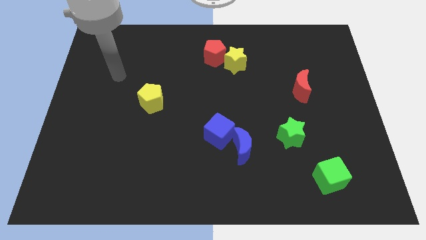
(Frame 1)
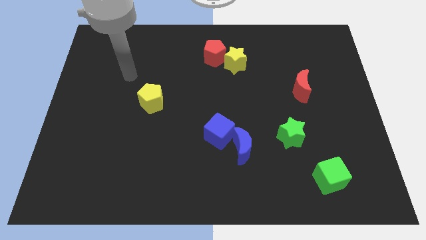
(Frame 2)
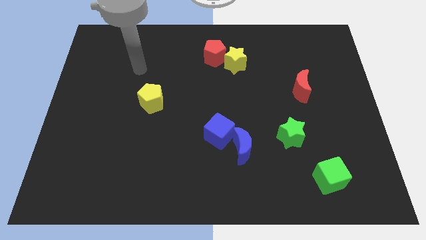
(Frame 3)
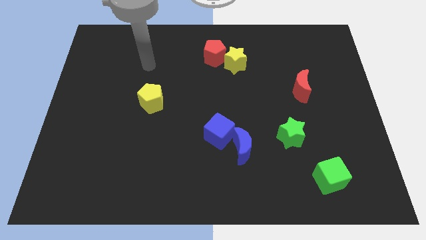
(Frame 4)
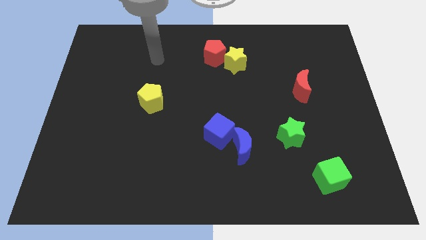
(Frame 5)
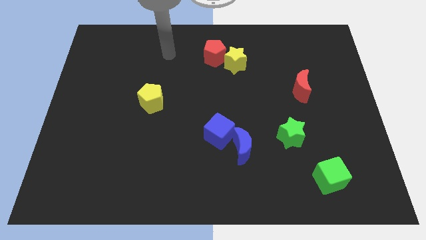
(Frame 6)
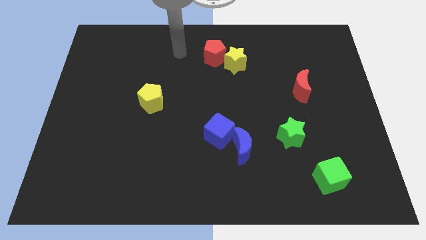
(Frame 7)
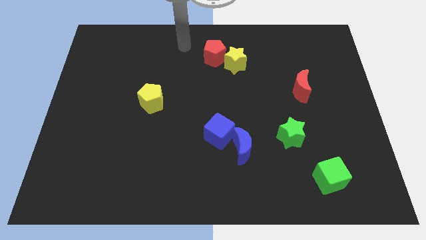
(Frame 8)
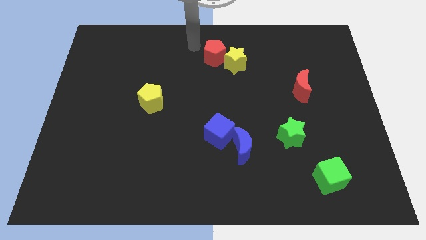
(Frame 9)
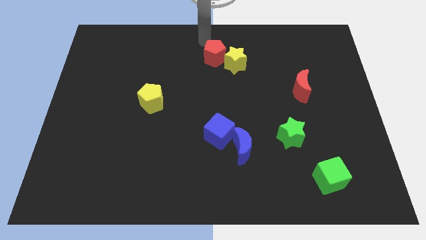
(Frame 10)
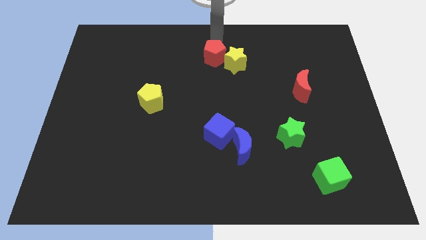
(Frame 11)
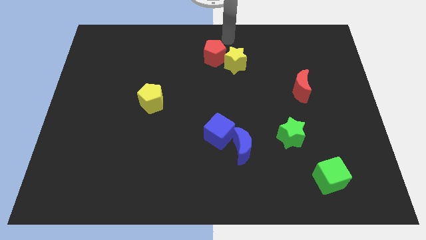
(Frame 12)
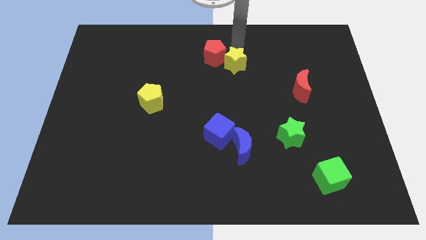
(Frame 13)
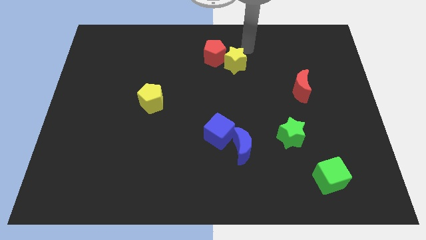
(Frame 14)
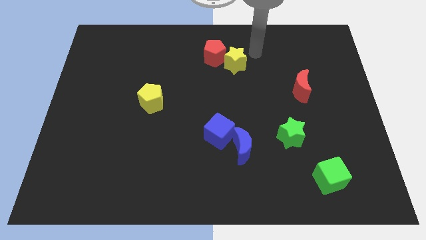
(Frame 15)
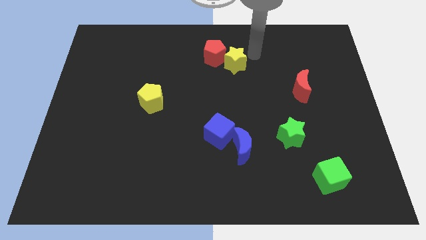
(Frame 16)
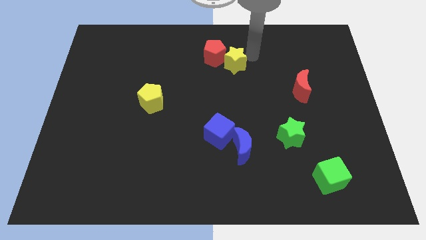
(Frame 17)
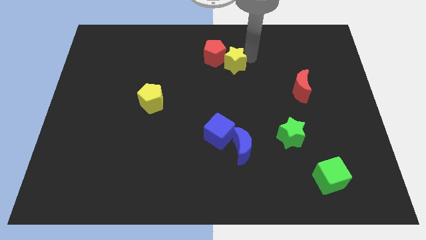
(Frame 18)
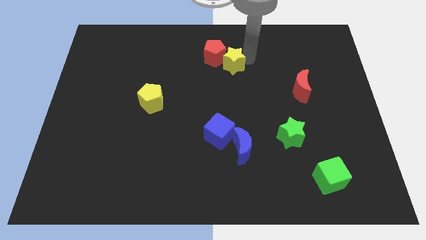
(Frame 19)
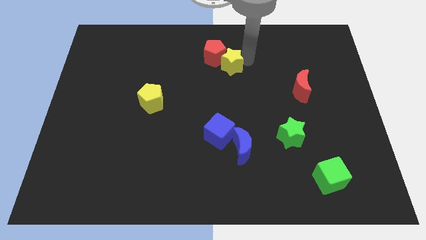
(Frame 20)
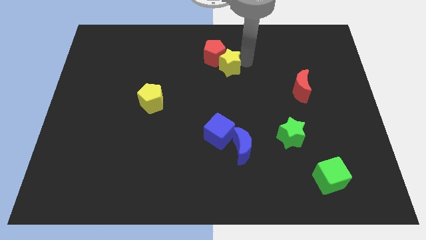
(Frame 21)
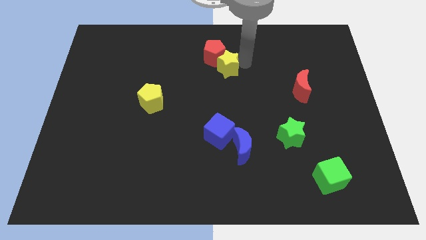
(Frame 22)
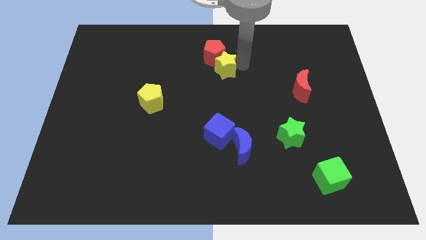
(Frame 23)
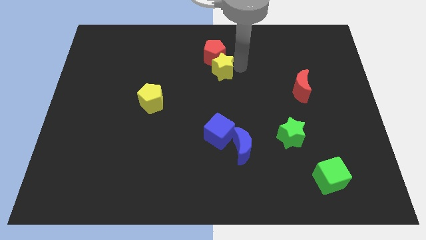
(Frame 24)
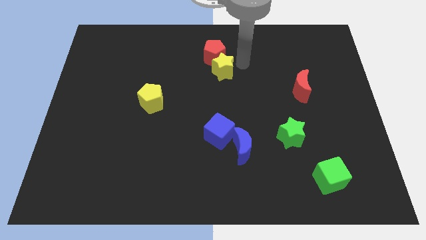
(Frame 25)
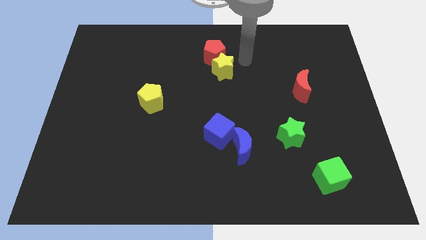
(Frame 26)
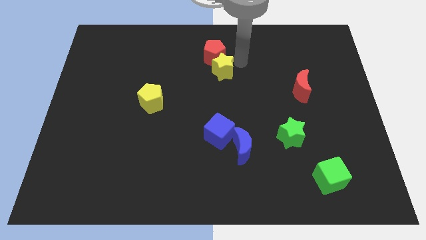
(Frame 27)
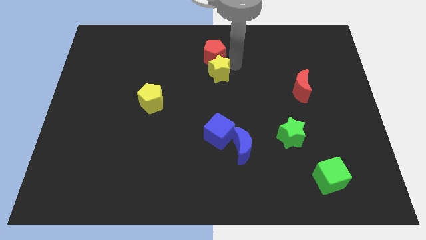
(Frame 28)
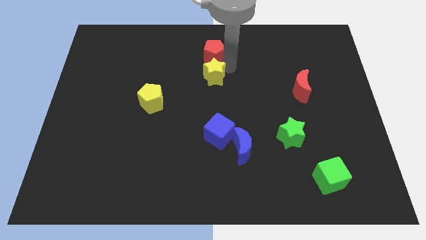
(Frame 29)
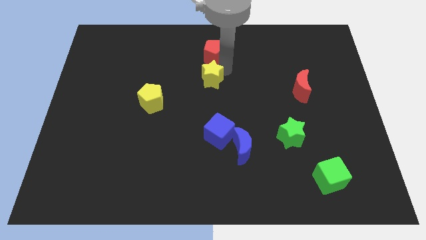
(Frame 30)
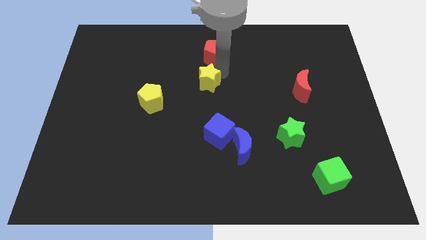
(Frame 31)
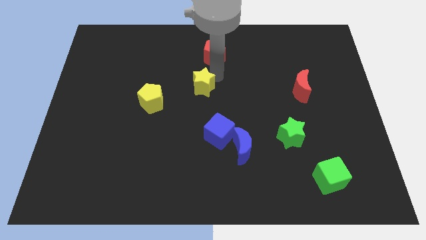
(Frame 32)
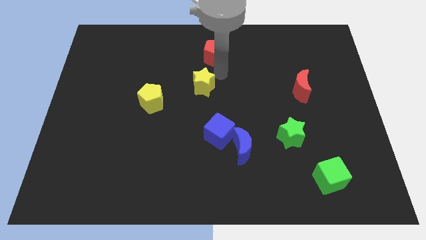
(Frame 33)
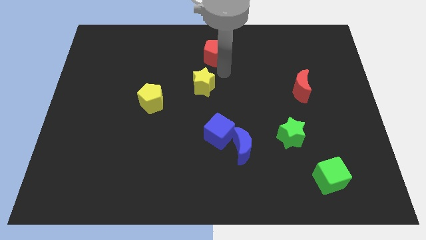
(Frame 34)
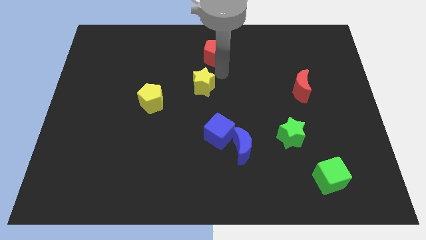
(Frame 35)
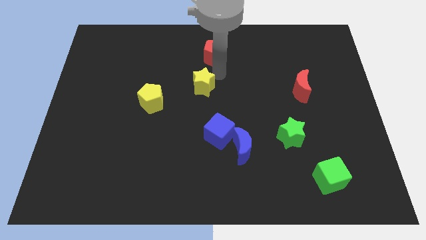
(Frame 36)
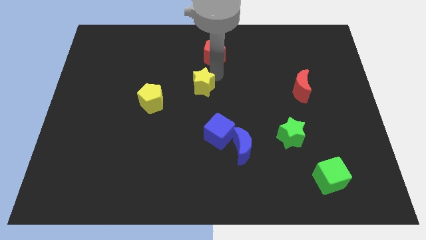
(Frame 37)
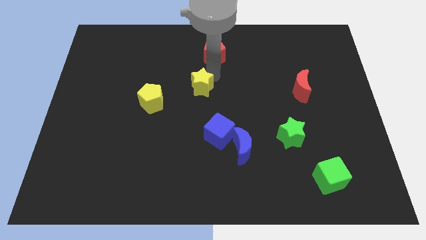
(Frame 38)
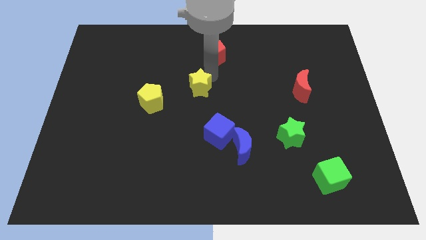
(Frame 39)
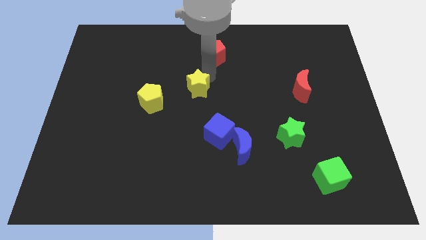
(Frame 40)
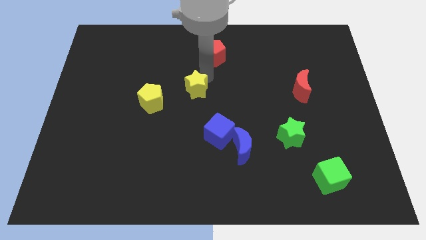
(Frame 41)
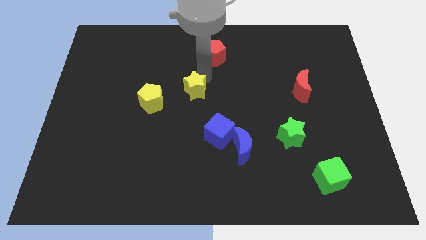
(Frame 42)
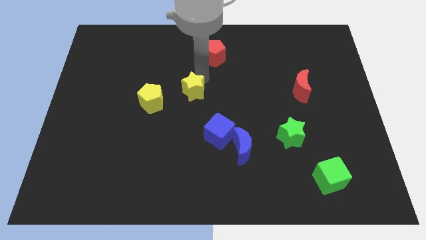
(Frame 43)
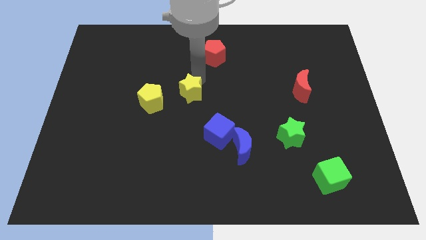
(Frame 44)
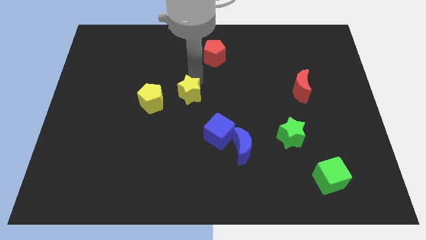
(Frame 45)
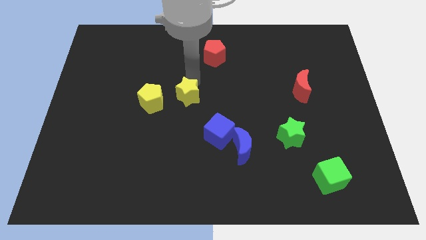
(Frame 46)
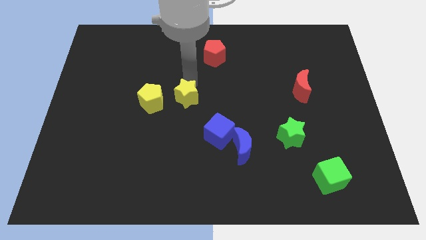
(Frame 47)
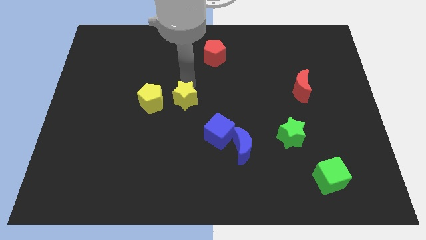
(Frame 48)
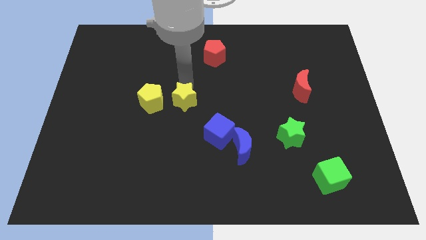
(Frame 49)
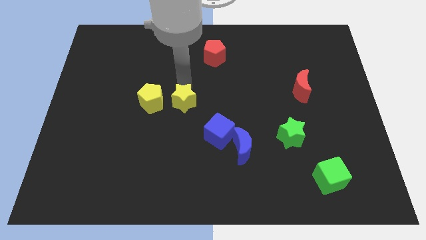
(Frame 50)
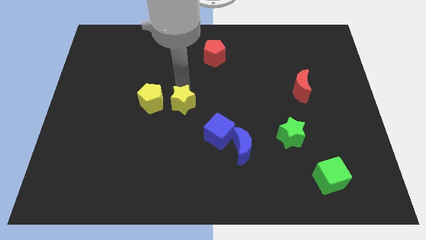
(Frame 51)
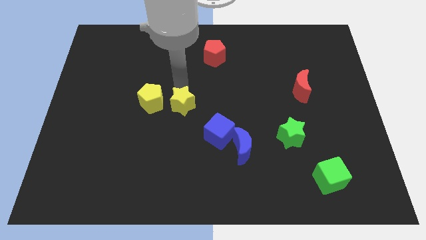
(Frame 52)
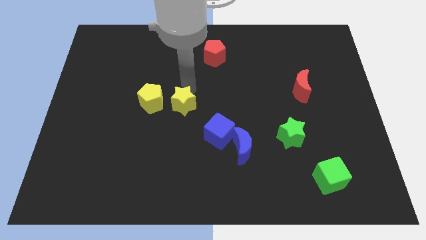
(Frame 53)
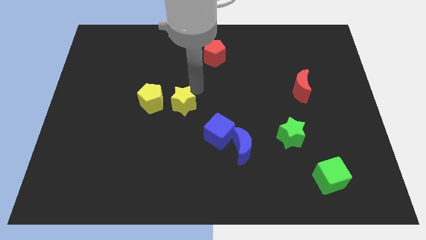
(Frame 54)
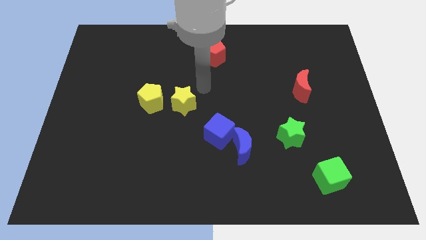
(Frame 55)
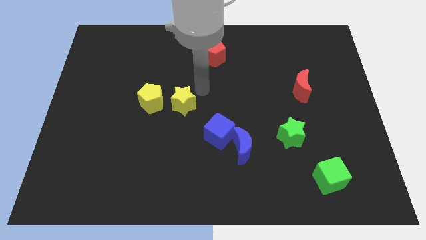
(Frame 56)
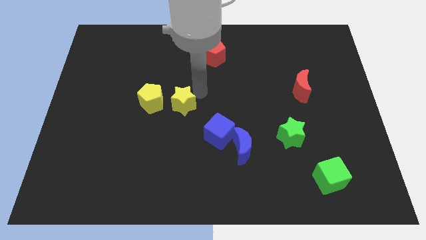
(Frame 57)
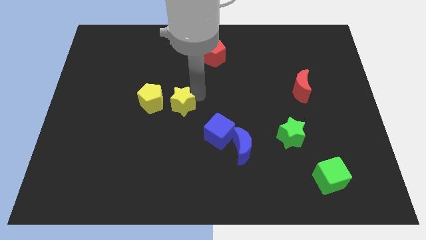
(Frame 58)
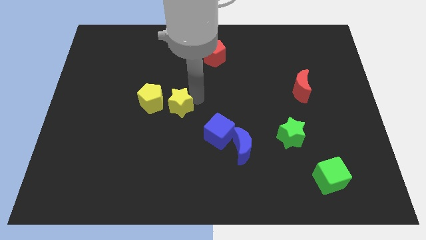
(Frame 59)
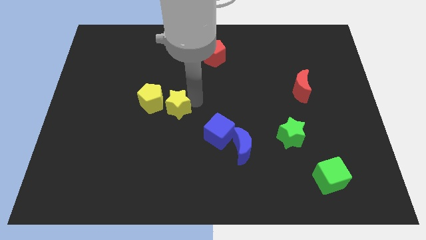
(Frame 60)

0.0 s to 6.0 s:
push the yellow star down and left diagonally

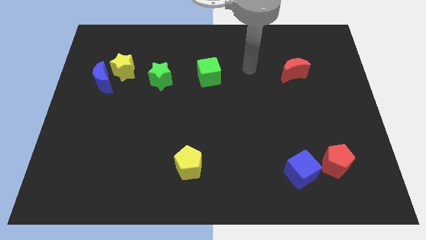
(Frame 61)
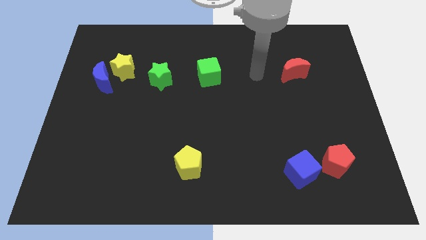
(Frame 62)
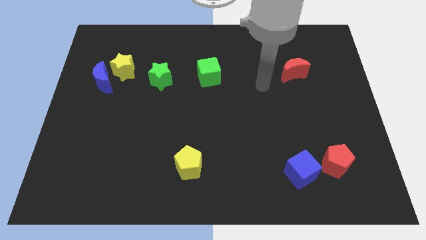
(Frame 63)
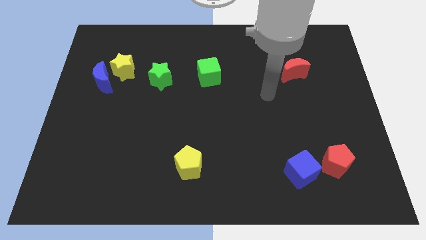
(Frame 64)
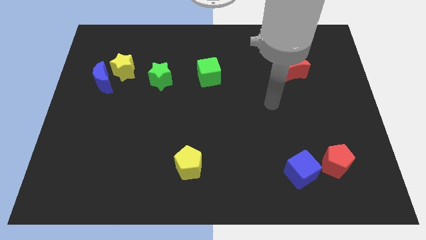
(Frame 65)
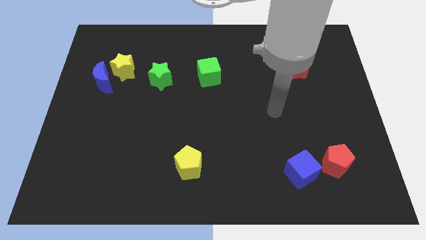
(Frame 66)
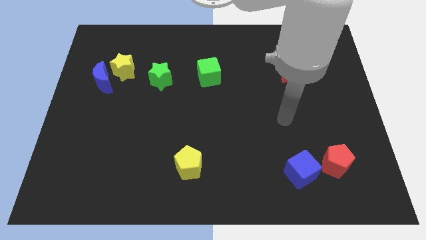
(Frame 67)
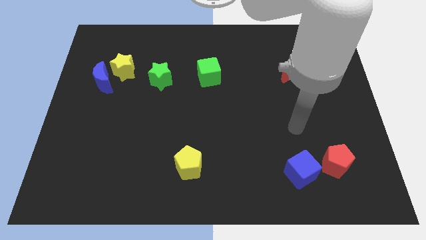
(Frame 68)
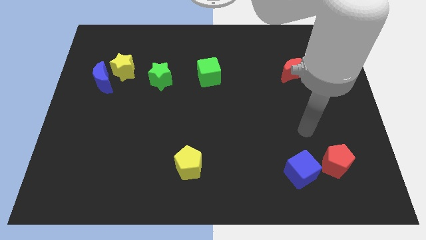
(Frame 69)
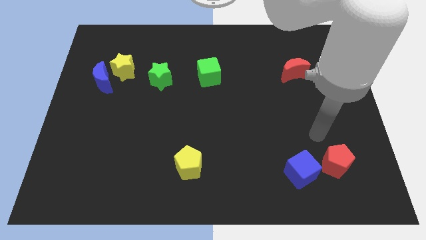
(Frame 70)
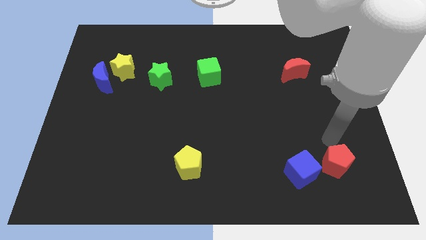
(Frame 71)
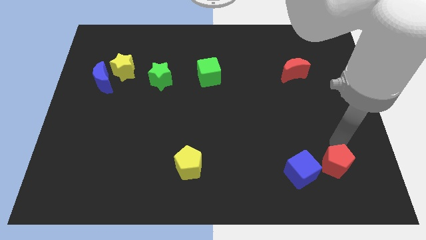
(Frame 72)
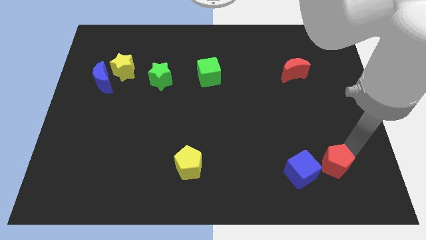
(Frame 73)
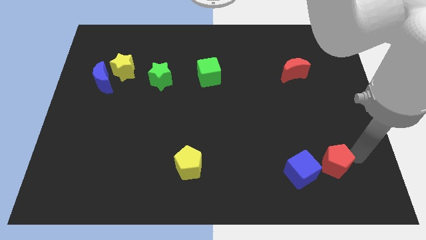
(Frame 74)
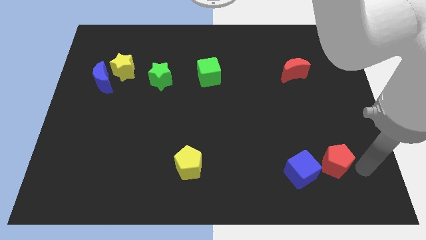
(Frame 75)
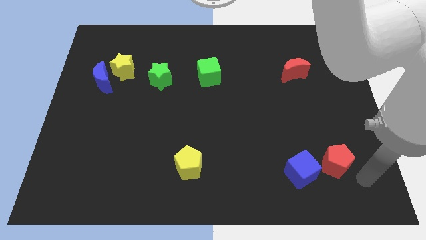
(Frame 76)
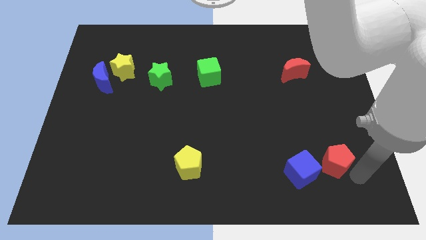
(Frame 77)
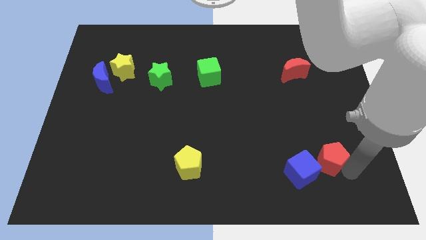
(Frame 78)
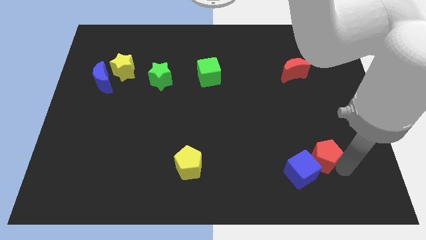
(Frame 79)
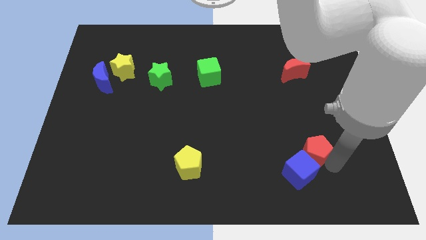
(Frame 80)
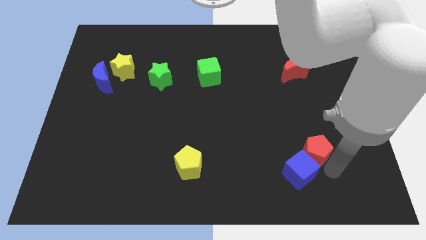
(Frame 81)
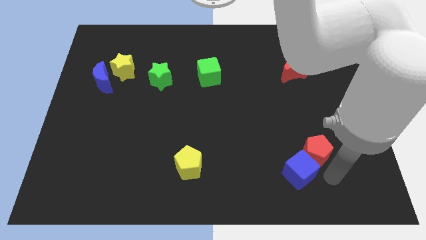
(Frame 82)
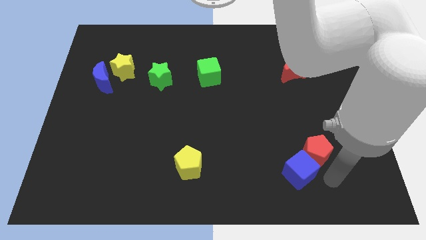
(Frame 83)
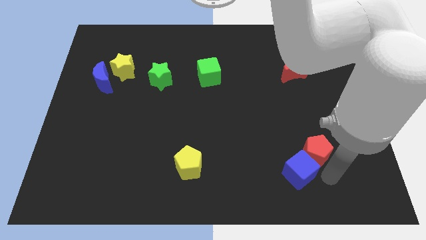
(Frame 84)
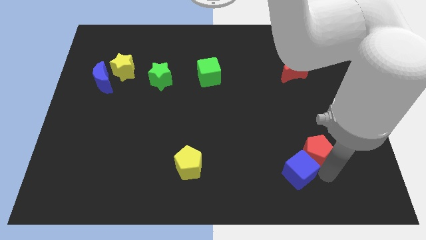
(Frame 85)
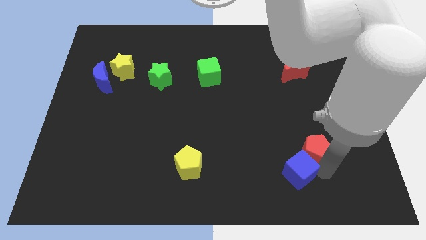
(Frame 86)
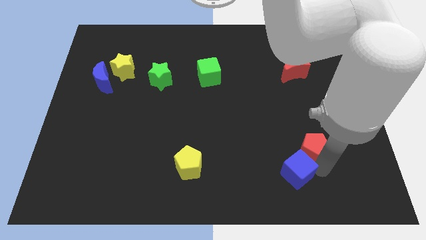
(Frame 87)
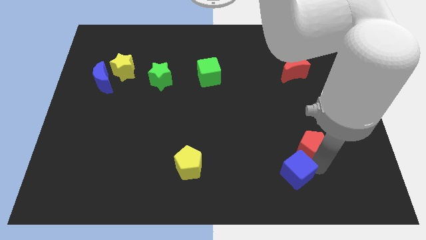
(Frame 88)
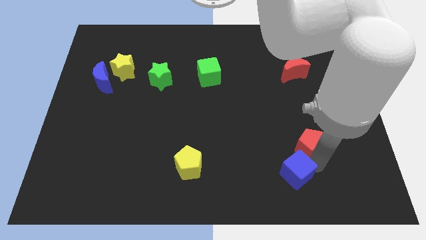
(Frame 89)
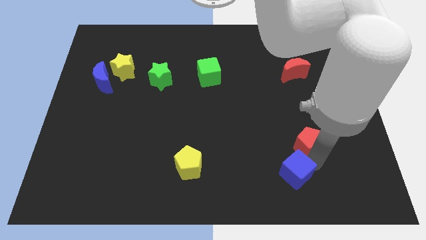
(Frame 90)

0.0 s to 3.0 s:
slide the red pentagon slightly diagonally upwards and left
